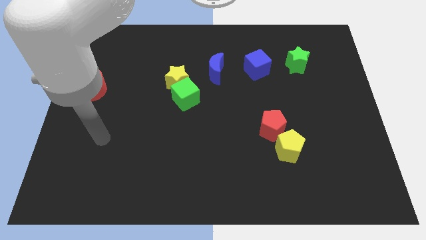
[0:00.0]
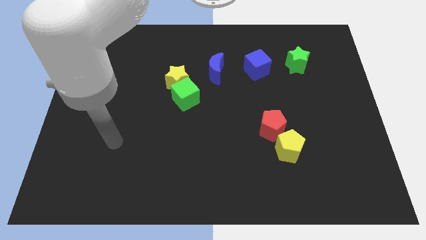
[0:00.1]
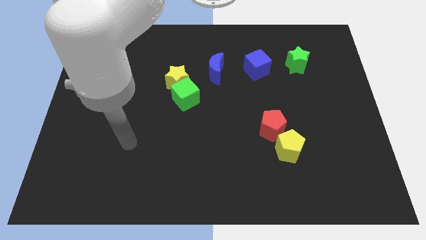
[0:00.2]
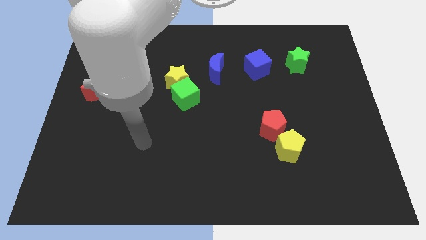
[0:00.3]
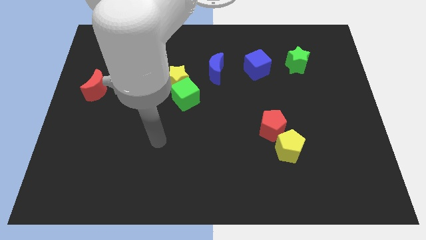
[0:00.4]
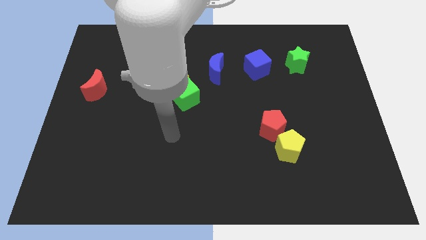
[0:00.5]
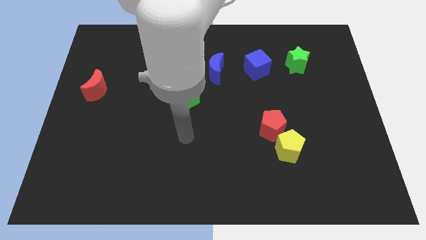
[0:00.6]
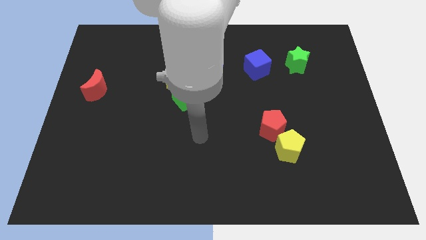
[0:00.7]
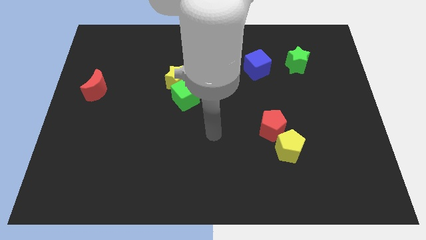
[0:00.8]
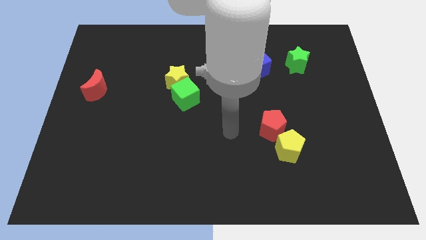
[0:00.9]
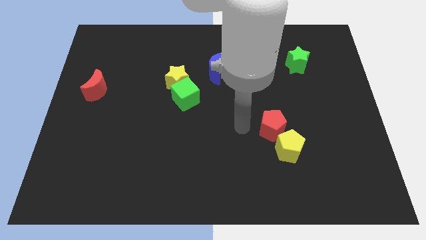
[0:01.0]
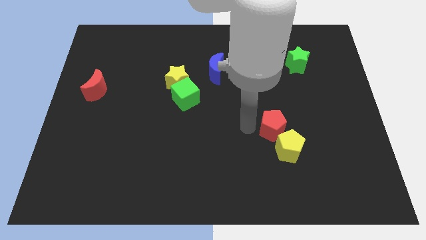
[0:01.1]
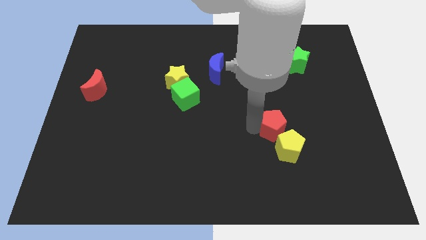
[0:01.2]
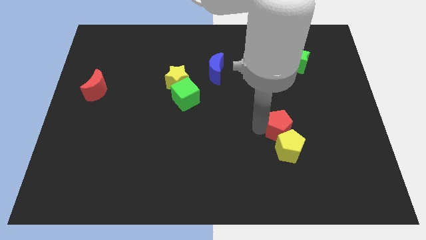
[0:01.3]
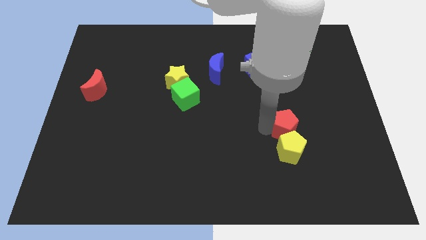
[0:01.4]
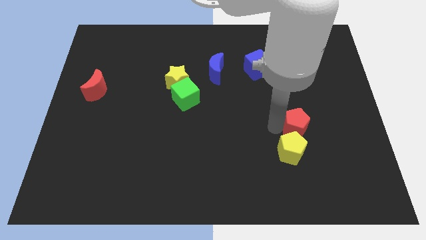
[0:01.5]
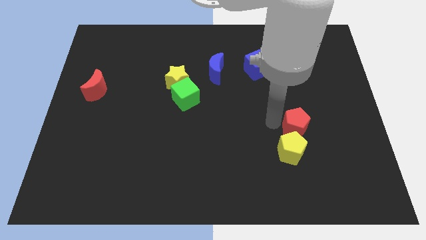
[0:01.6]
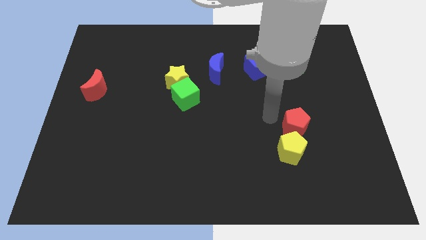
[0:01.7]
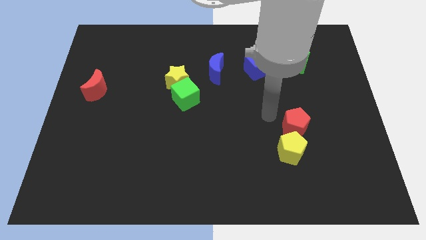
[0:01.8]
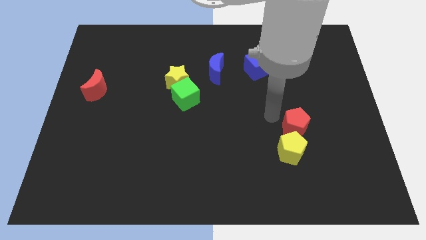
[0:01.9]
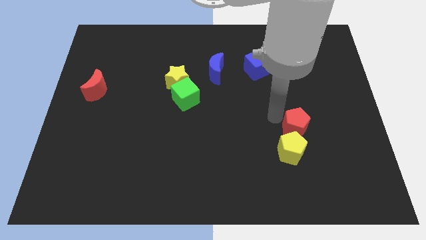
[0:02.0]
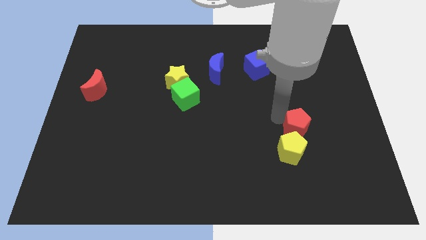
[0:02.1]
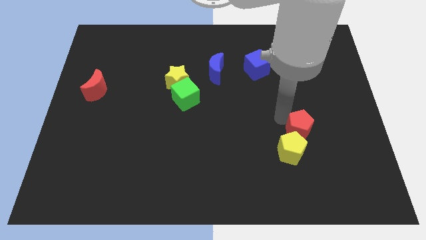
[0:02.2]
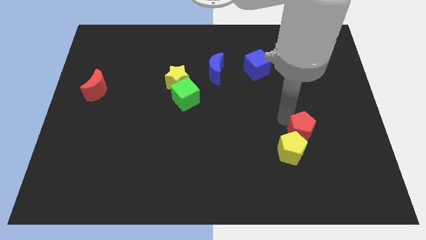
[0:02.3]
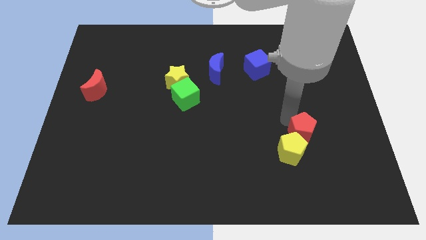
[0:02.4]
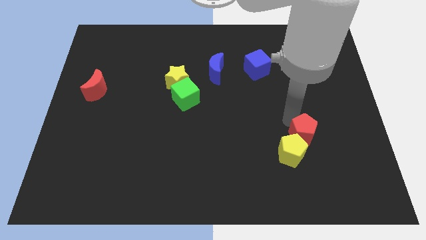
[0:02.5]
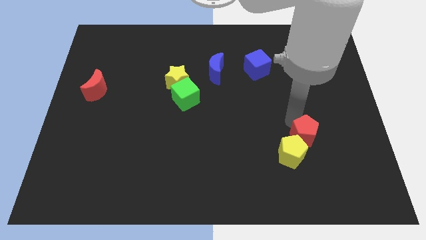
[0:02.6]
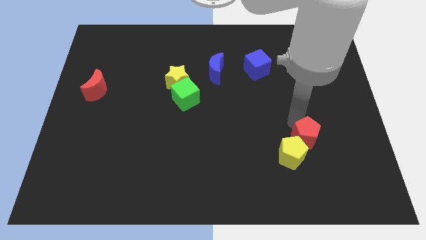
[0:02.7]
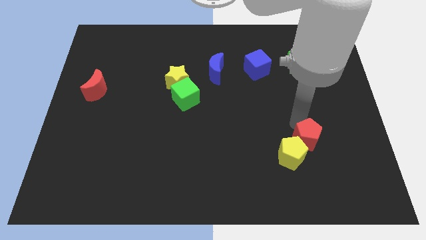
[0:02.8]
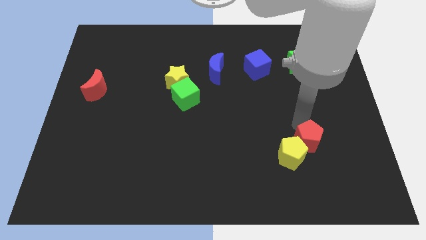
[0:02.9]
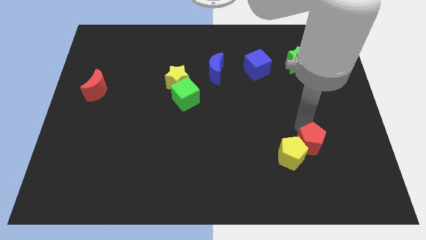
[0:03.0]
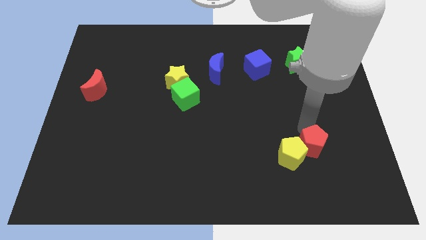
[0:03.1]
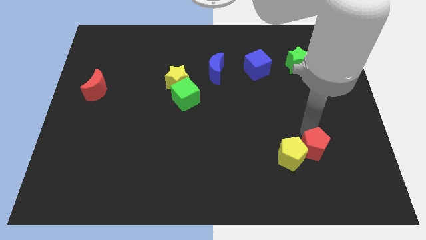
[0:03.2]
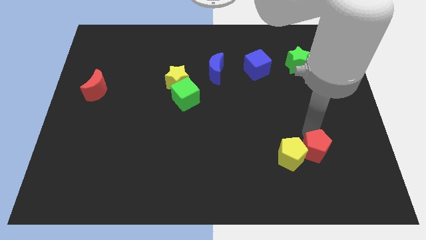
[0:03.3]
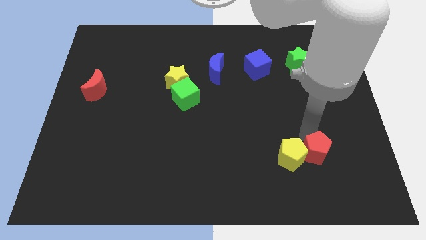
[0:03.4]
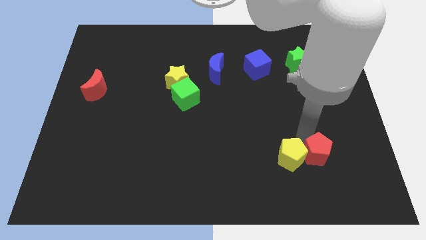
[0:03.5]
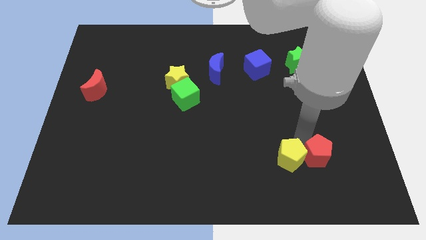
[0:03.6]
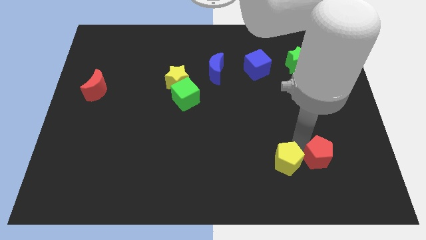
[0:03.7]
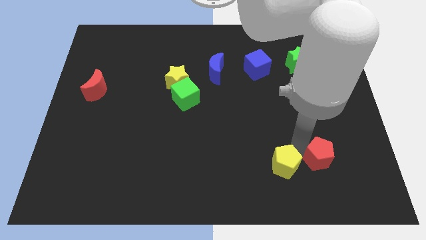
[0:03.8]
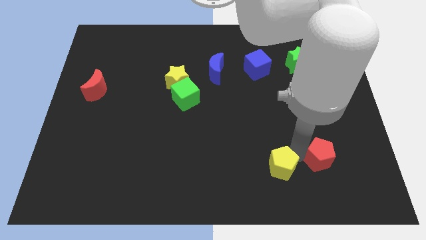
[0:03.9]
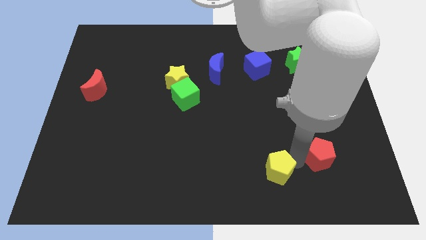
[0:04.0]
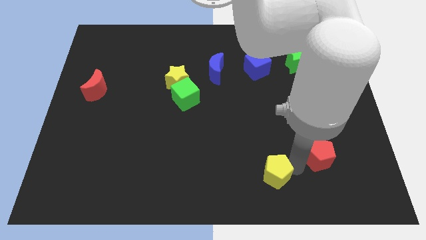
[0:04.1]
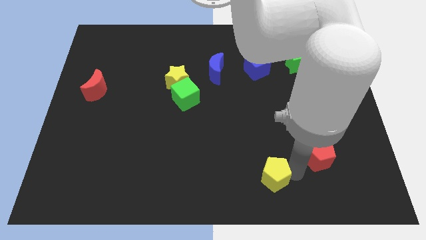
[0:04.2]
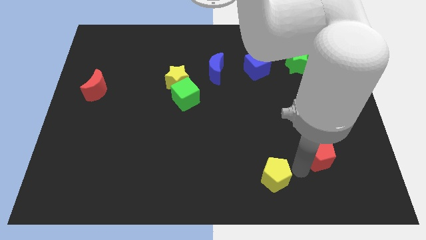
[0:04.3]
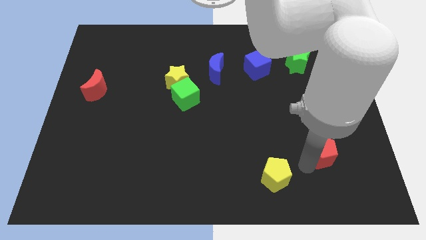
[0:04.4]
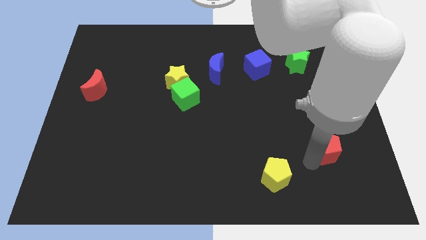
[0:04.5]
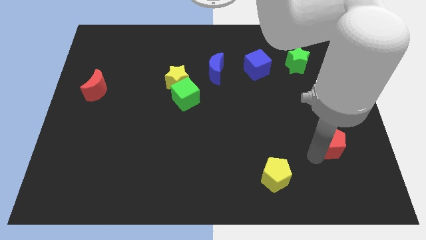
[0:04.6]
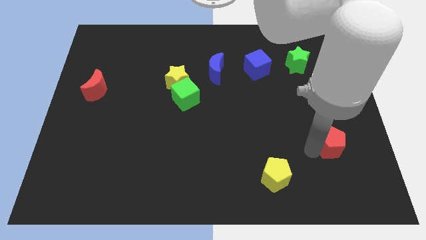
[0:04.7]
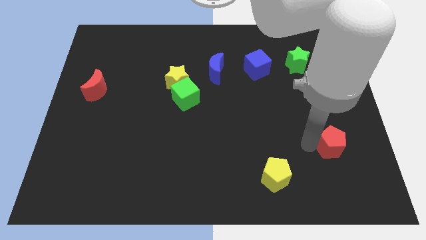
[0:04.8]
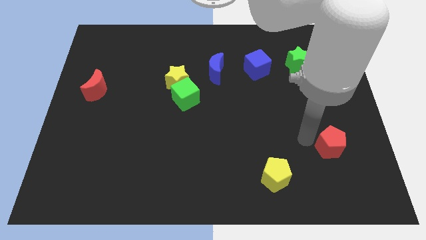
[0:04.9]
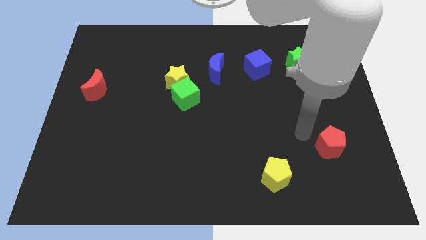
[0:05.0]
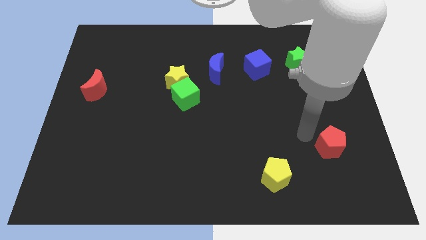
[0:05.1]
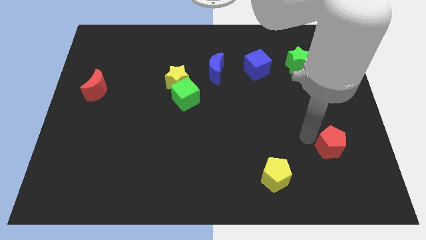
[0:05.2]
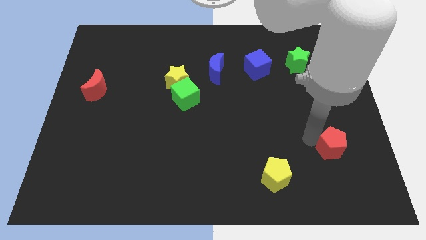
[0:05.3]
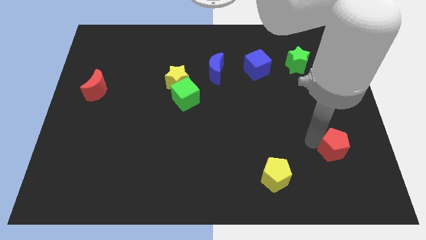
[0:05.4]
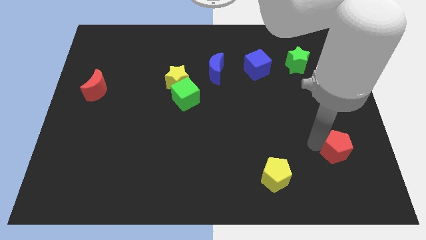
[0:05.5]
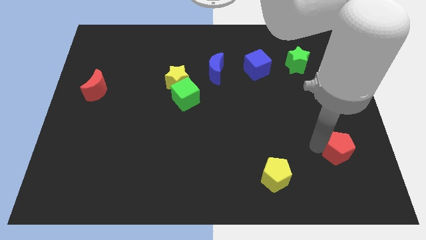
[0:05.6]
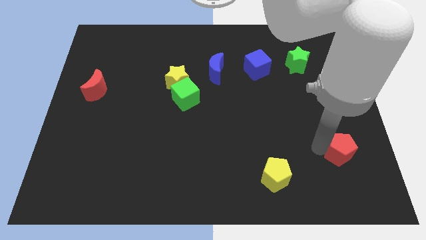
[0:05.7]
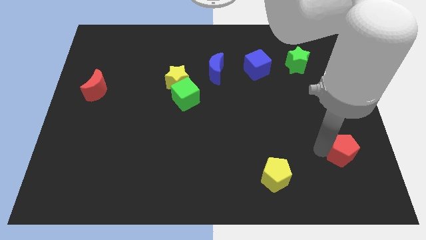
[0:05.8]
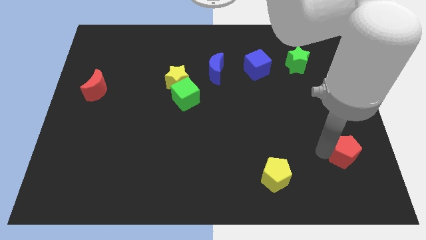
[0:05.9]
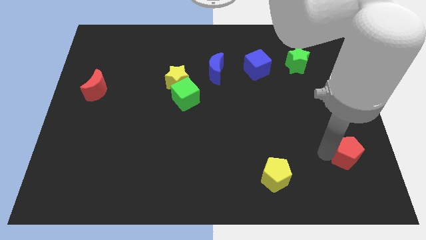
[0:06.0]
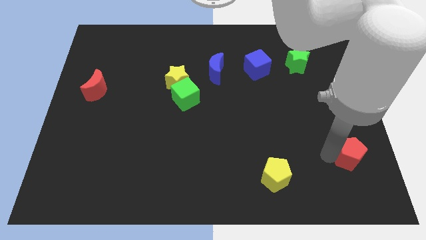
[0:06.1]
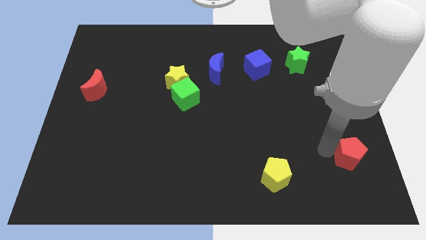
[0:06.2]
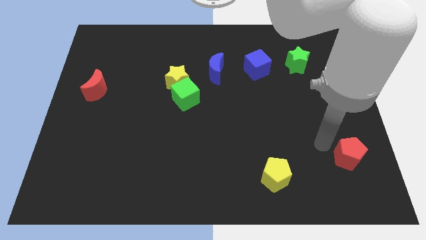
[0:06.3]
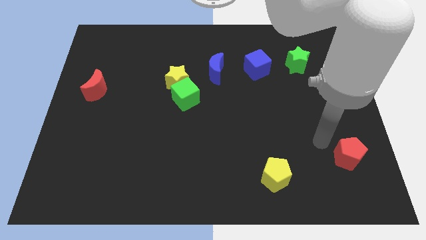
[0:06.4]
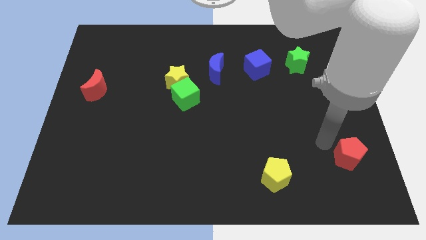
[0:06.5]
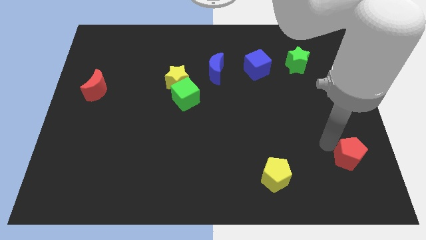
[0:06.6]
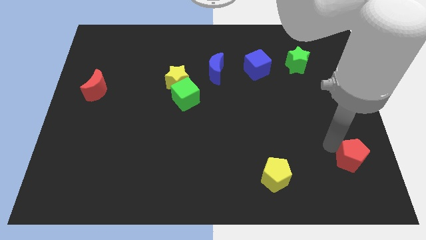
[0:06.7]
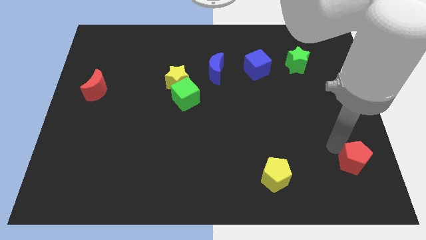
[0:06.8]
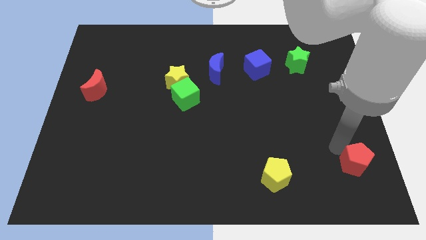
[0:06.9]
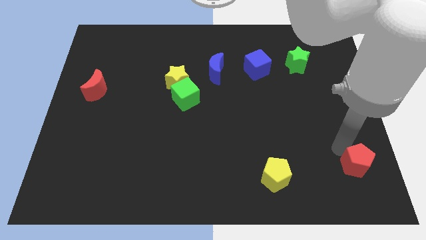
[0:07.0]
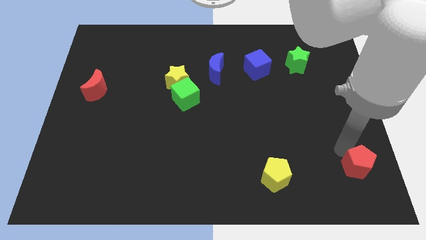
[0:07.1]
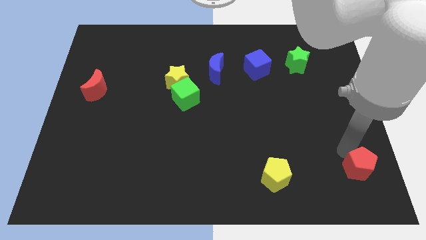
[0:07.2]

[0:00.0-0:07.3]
move the red pentagon to the bottom right of the board
